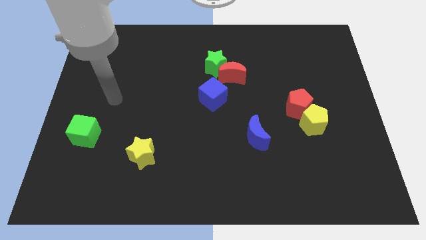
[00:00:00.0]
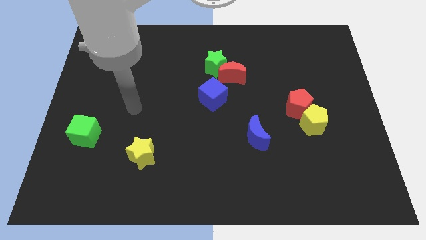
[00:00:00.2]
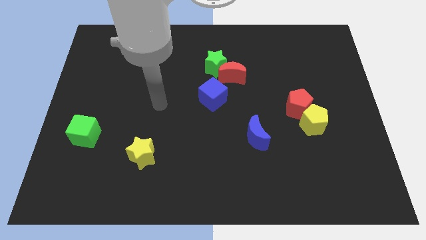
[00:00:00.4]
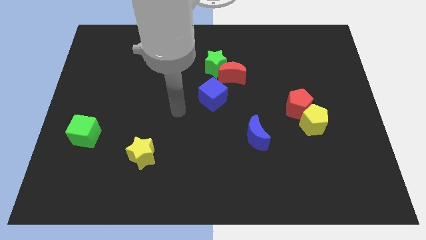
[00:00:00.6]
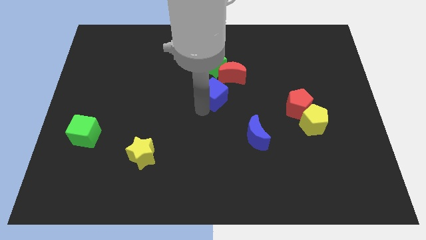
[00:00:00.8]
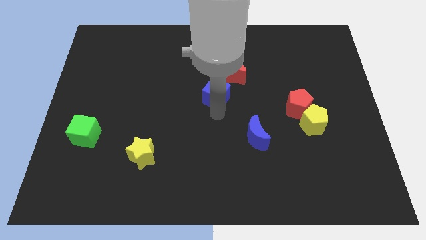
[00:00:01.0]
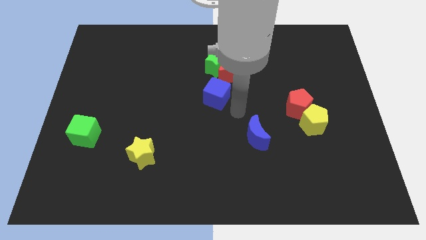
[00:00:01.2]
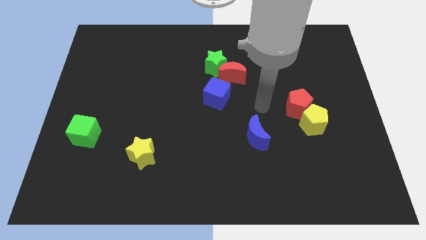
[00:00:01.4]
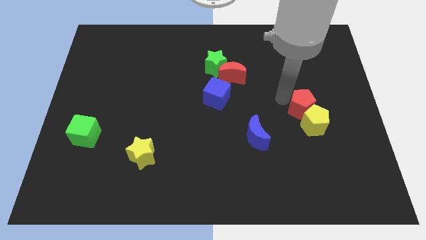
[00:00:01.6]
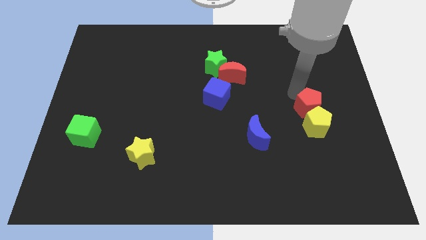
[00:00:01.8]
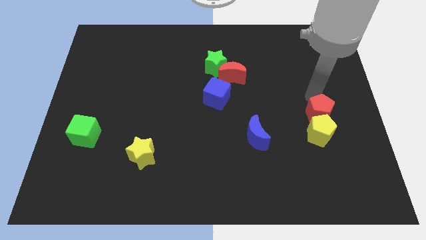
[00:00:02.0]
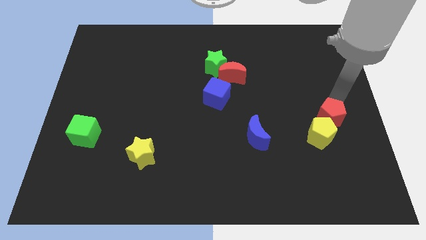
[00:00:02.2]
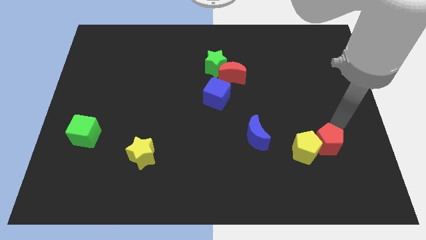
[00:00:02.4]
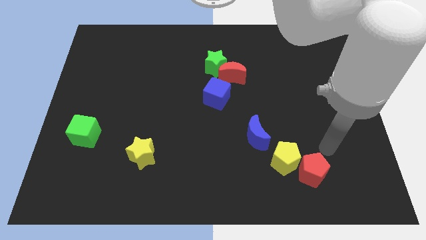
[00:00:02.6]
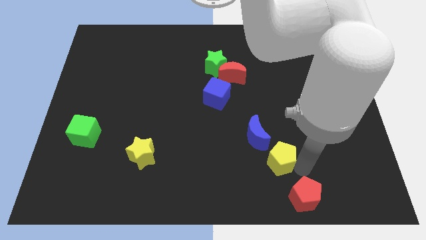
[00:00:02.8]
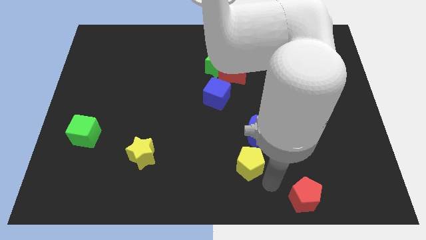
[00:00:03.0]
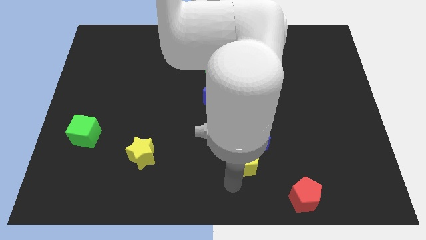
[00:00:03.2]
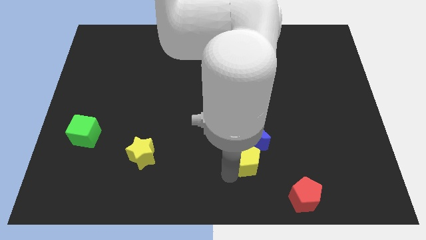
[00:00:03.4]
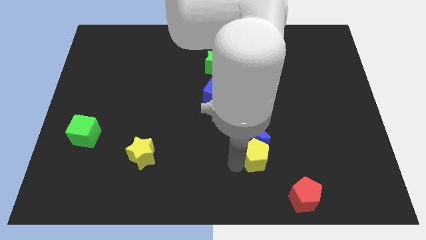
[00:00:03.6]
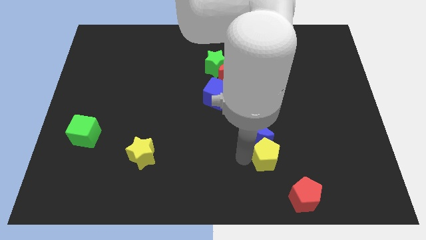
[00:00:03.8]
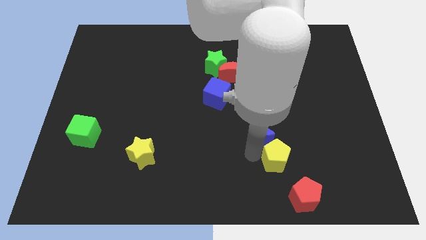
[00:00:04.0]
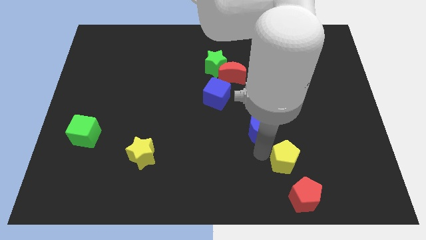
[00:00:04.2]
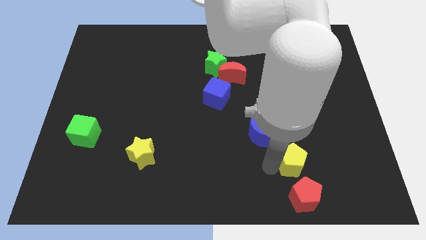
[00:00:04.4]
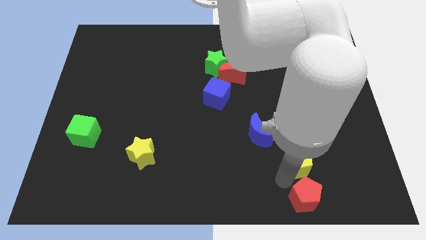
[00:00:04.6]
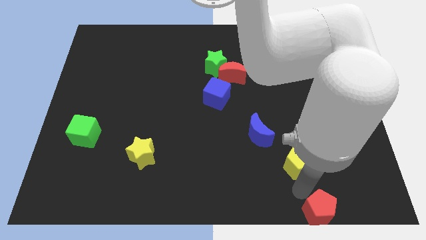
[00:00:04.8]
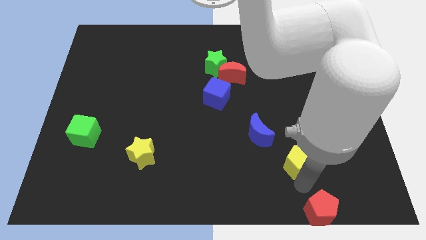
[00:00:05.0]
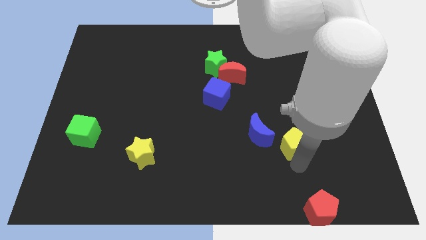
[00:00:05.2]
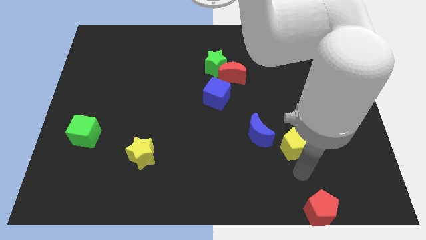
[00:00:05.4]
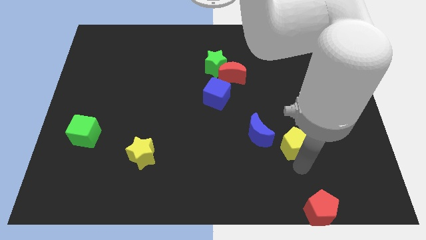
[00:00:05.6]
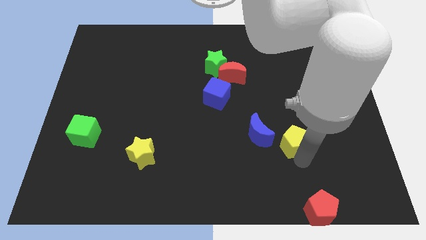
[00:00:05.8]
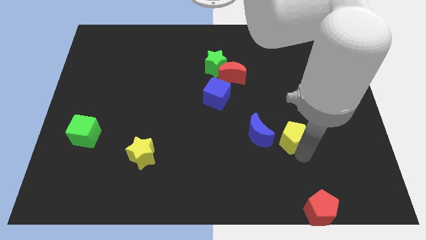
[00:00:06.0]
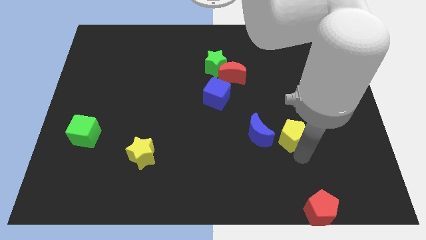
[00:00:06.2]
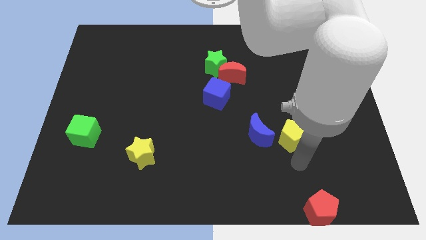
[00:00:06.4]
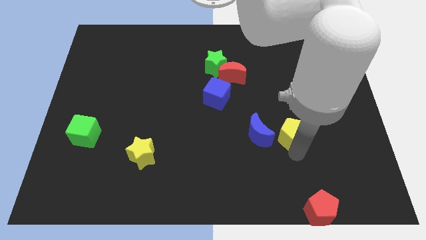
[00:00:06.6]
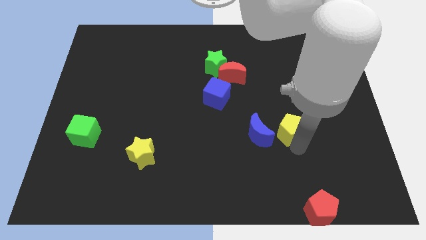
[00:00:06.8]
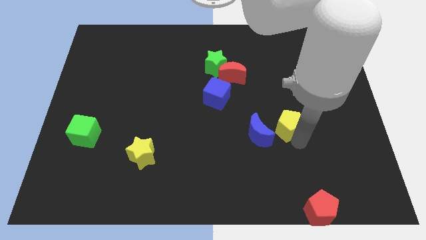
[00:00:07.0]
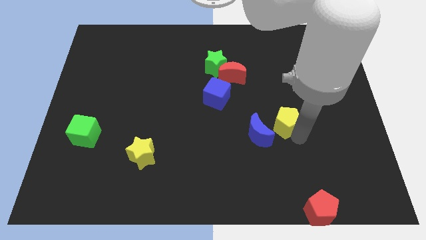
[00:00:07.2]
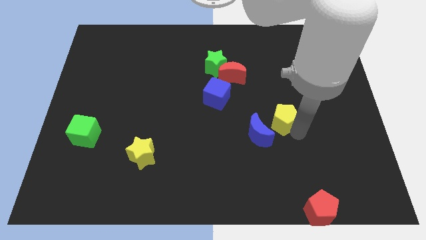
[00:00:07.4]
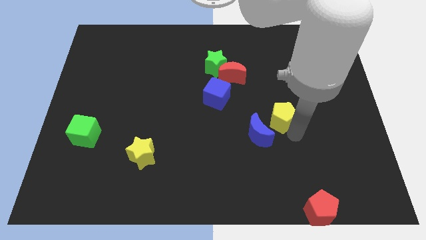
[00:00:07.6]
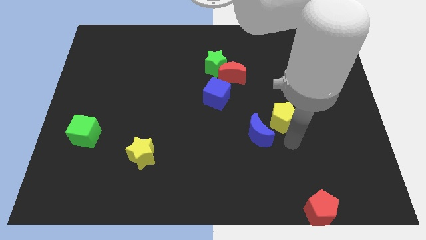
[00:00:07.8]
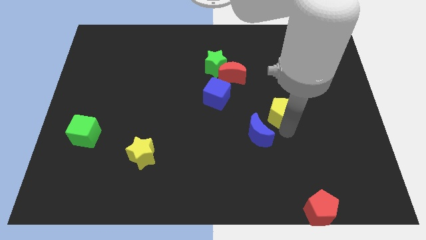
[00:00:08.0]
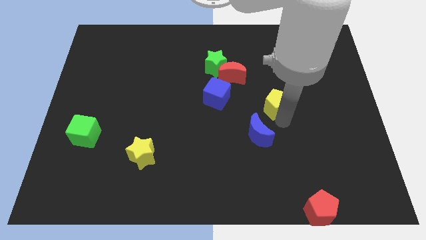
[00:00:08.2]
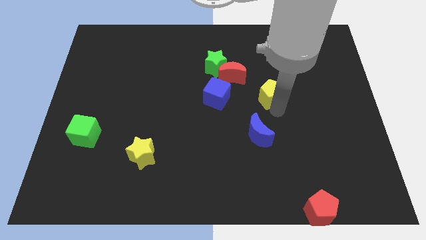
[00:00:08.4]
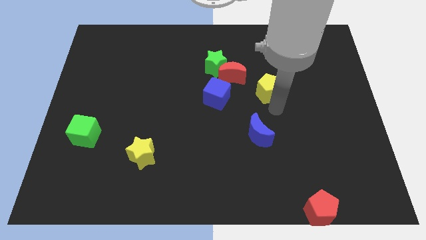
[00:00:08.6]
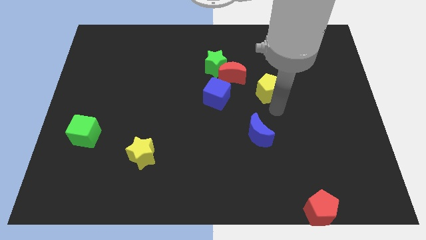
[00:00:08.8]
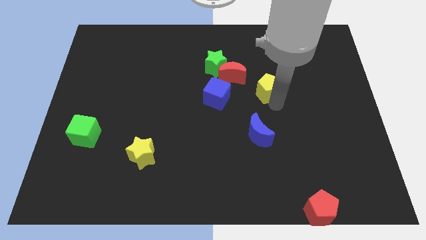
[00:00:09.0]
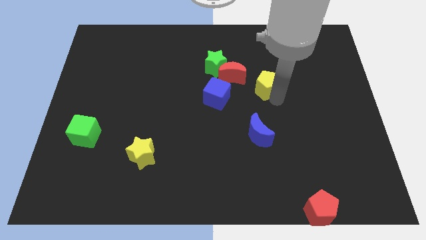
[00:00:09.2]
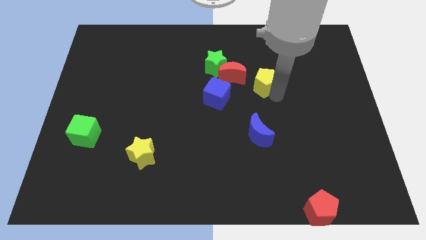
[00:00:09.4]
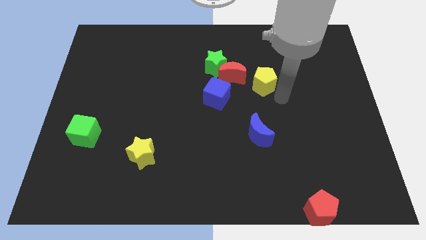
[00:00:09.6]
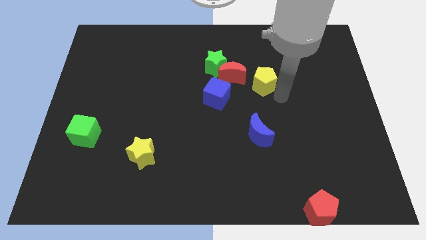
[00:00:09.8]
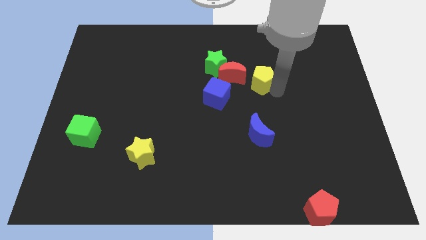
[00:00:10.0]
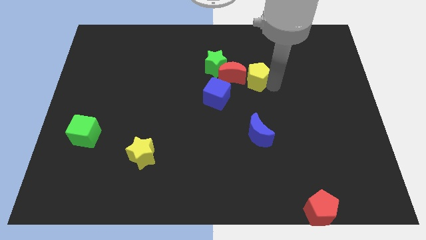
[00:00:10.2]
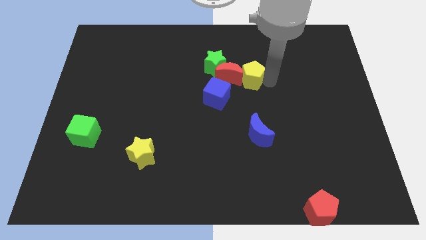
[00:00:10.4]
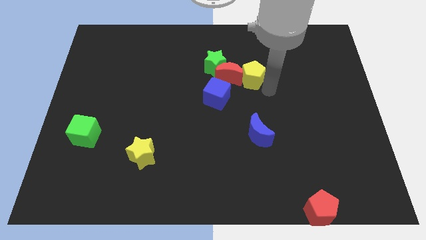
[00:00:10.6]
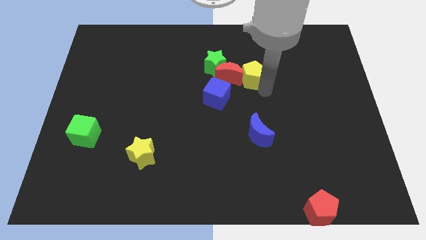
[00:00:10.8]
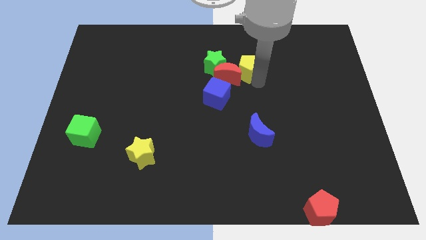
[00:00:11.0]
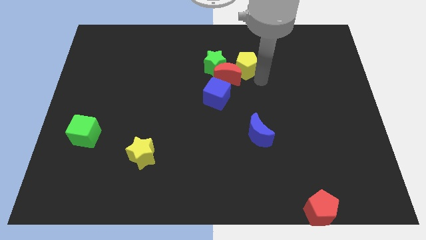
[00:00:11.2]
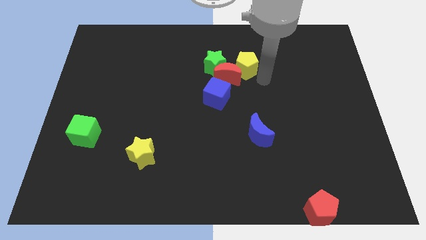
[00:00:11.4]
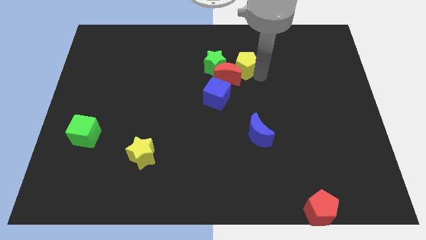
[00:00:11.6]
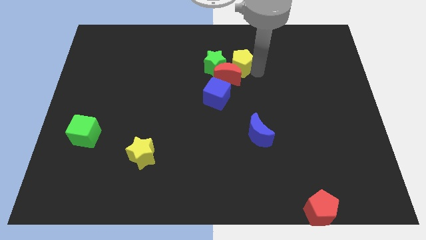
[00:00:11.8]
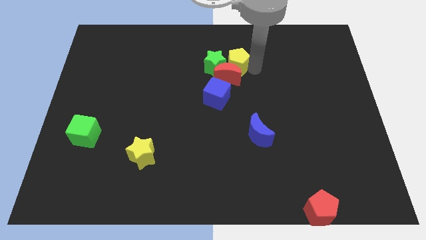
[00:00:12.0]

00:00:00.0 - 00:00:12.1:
put the yellow pentagon close to the green star

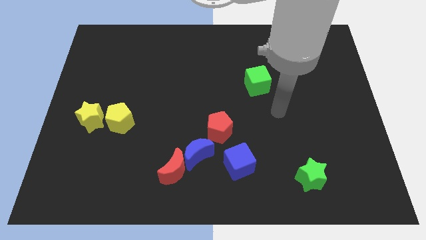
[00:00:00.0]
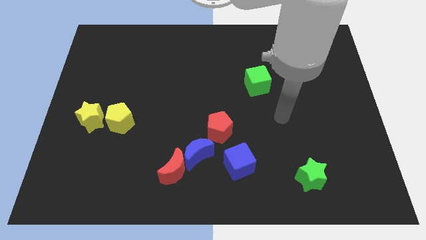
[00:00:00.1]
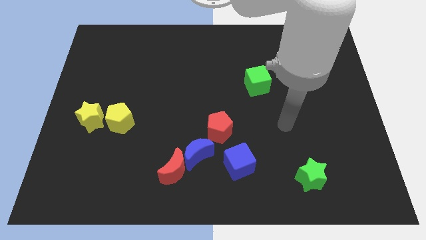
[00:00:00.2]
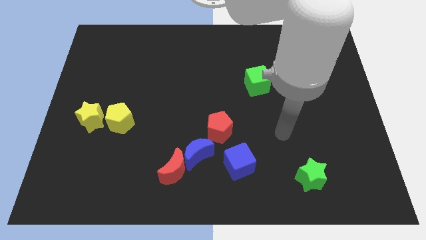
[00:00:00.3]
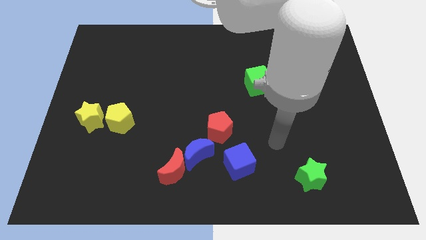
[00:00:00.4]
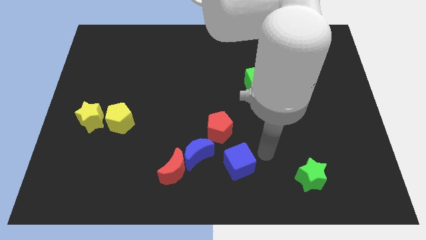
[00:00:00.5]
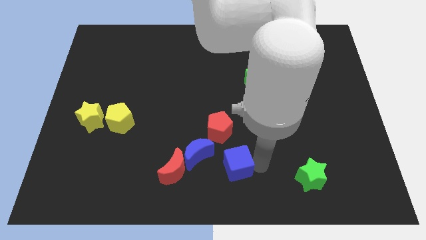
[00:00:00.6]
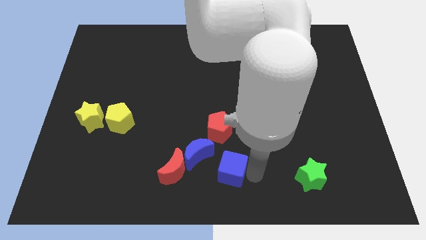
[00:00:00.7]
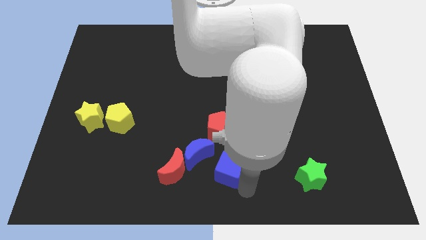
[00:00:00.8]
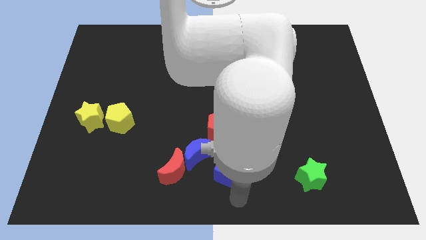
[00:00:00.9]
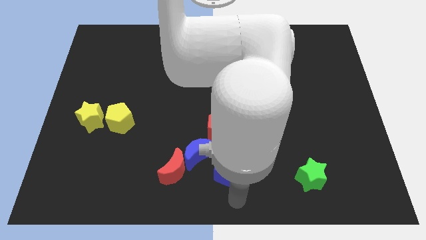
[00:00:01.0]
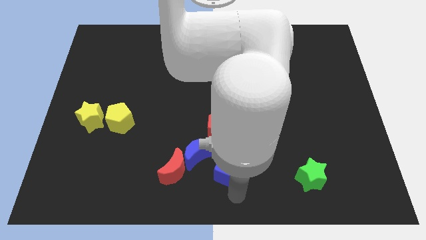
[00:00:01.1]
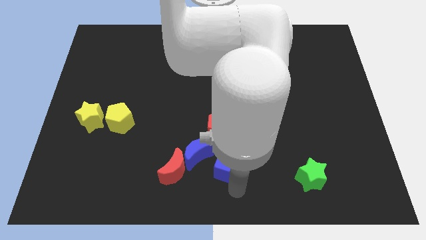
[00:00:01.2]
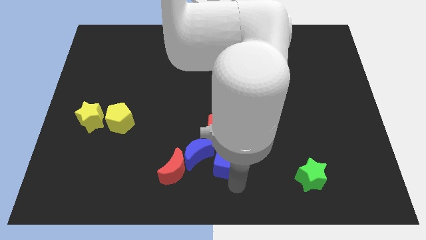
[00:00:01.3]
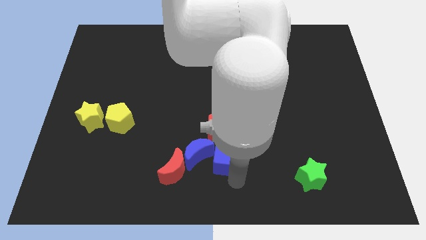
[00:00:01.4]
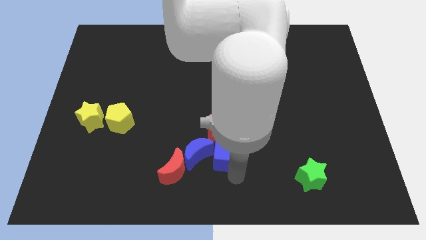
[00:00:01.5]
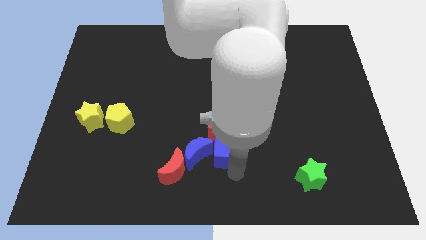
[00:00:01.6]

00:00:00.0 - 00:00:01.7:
push the blue cube next to the red pentagon
